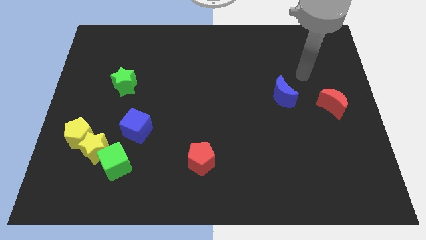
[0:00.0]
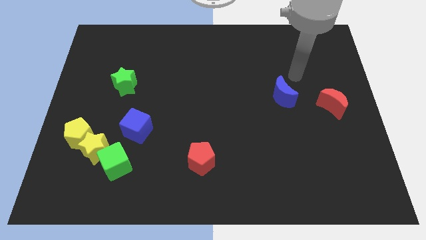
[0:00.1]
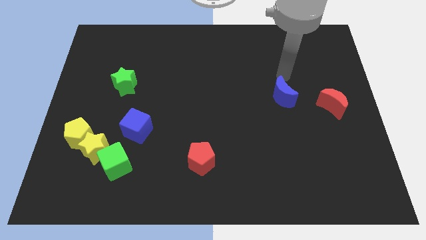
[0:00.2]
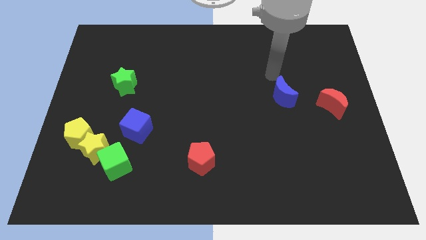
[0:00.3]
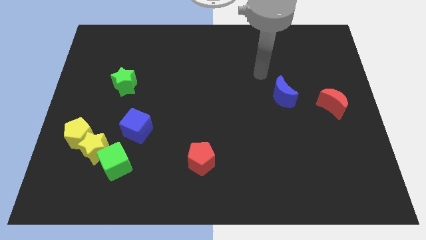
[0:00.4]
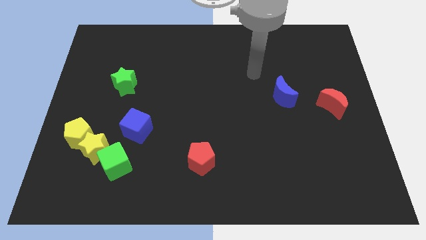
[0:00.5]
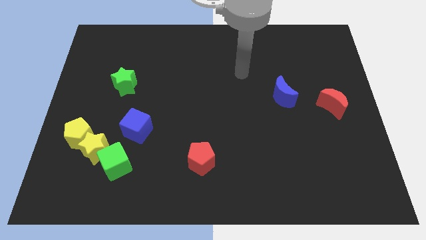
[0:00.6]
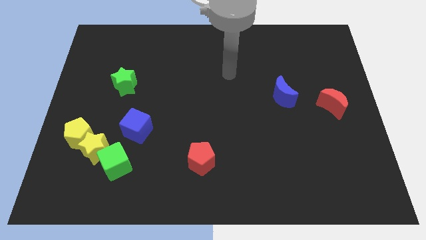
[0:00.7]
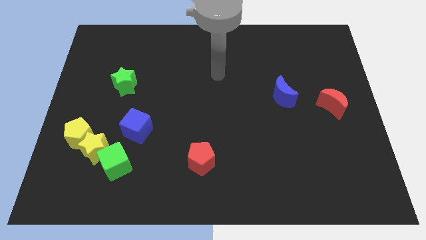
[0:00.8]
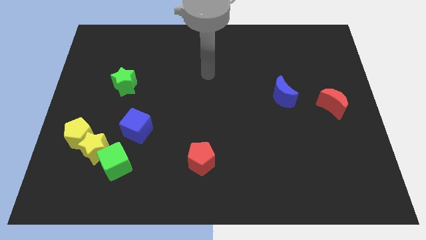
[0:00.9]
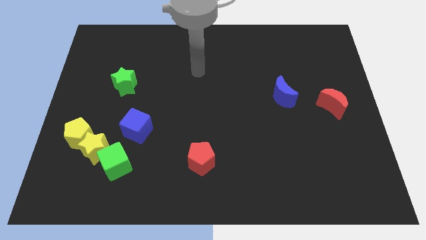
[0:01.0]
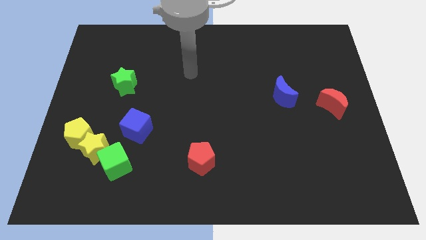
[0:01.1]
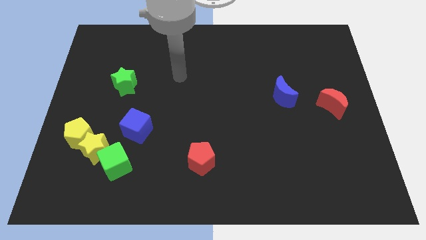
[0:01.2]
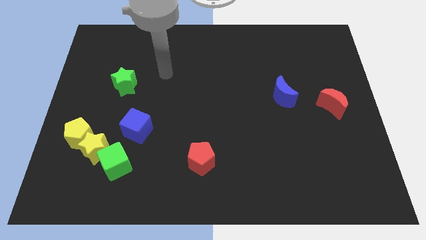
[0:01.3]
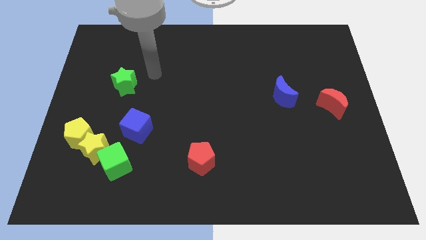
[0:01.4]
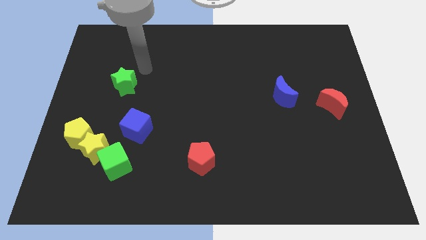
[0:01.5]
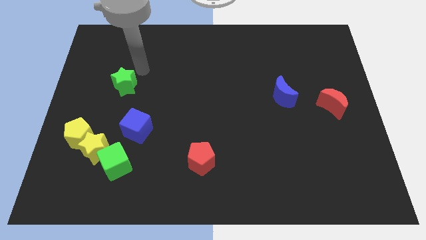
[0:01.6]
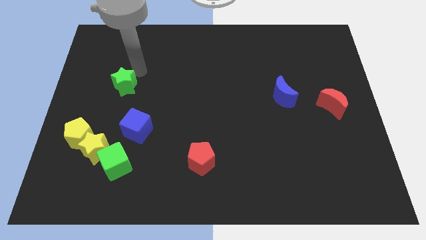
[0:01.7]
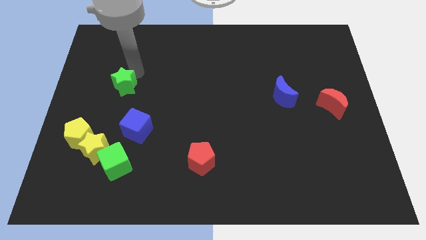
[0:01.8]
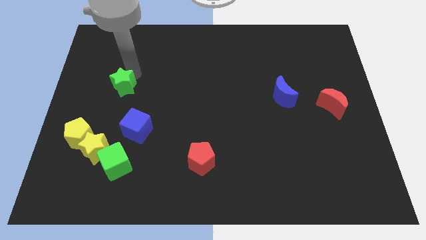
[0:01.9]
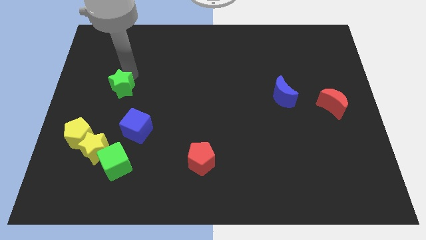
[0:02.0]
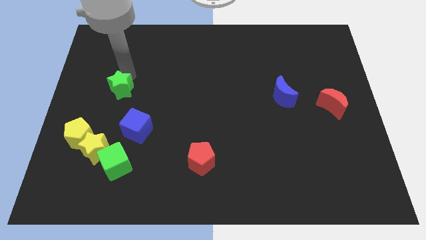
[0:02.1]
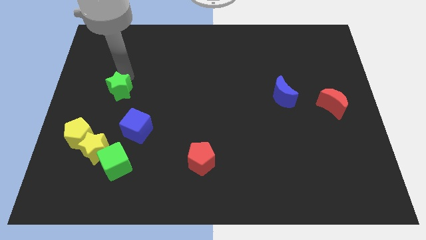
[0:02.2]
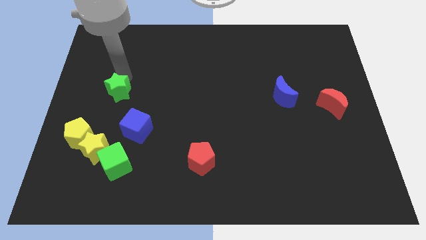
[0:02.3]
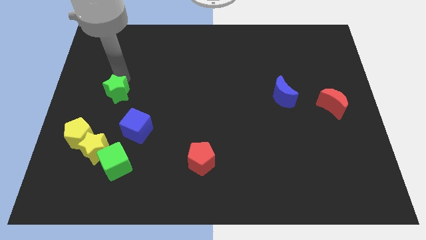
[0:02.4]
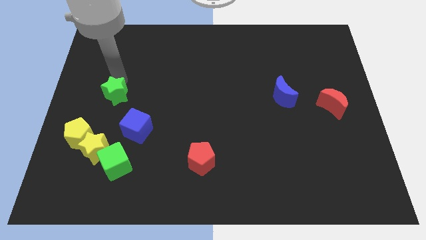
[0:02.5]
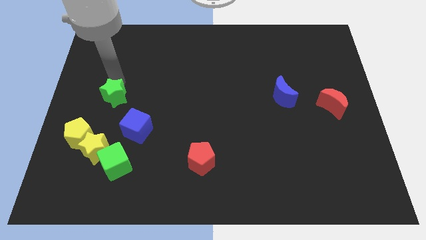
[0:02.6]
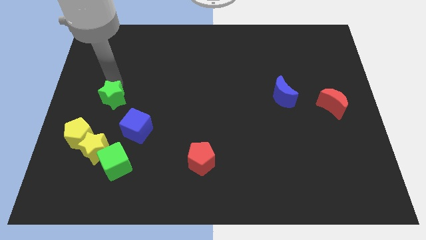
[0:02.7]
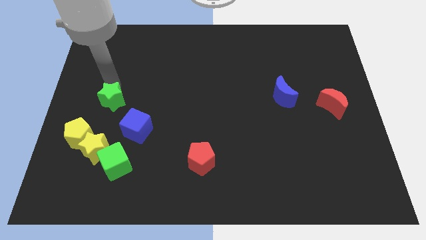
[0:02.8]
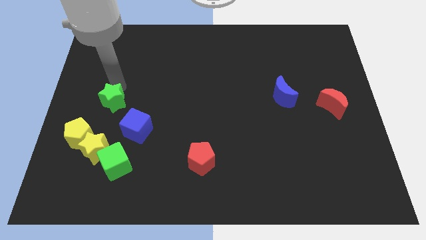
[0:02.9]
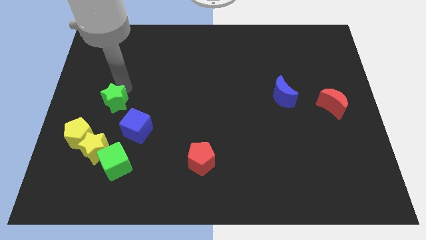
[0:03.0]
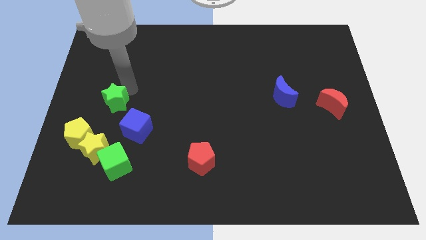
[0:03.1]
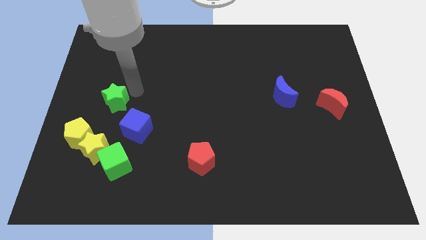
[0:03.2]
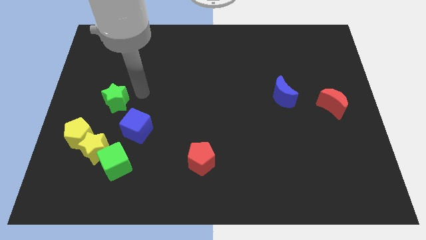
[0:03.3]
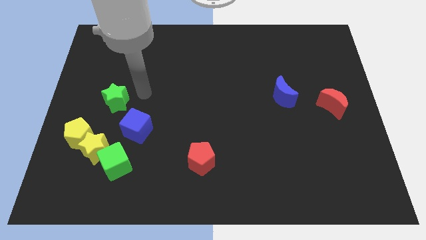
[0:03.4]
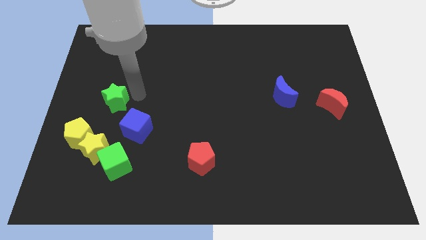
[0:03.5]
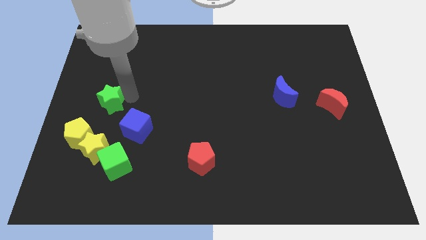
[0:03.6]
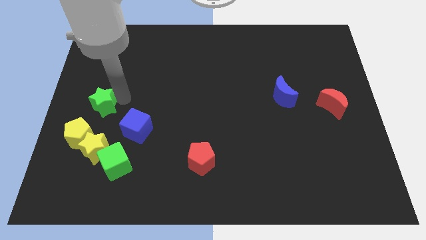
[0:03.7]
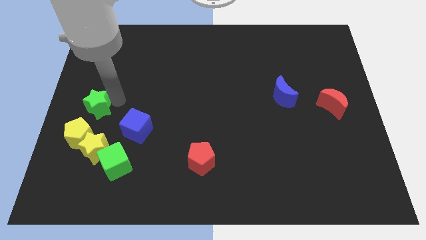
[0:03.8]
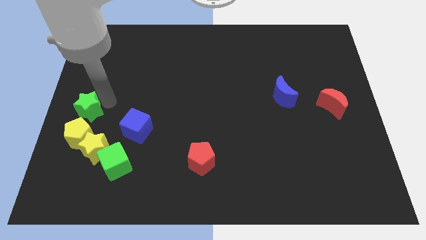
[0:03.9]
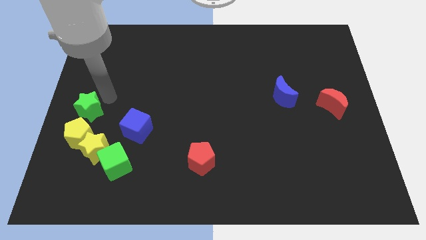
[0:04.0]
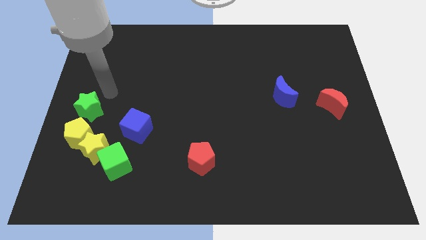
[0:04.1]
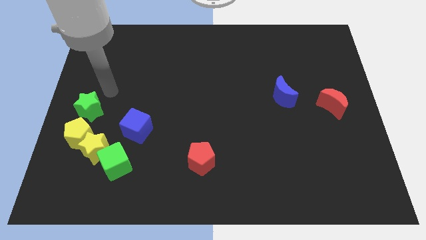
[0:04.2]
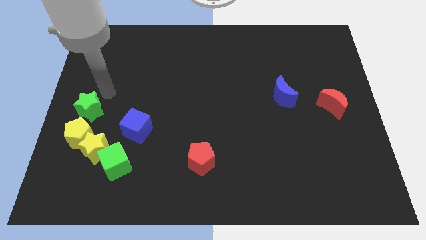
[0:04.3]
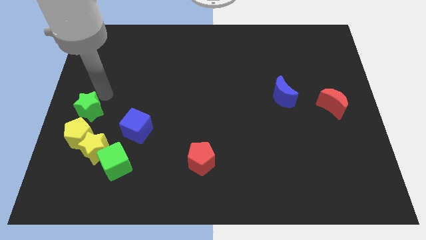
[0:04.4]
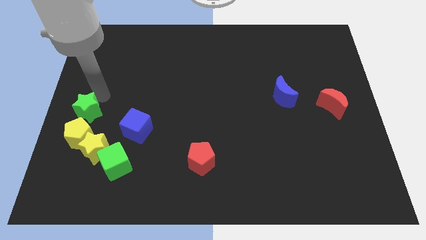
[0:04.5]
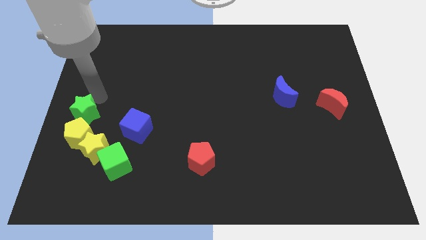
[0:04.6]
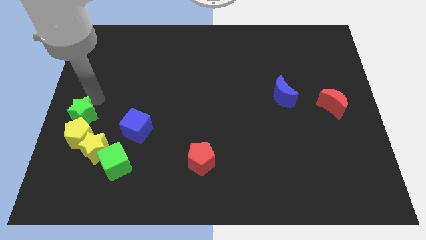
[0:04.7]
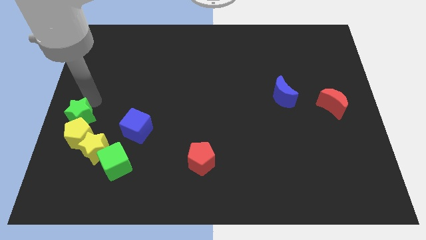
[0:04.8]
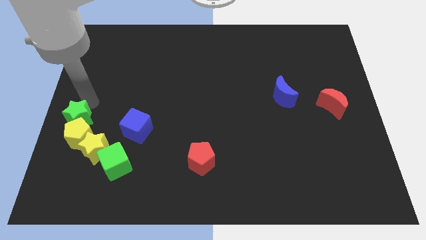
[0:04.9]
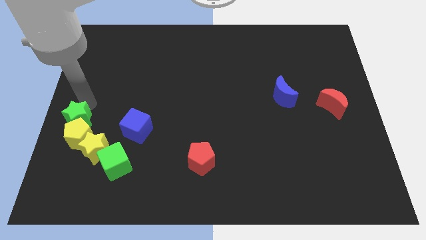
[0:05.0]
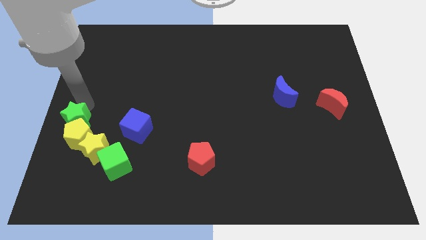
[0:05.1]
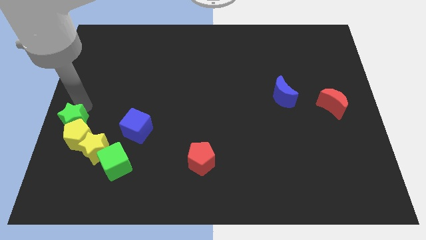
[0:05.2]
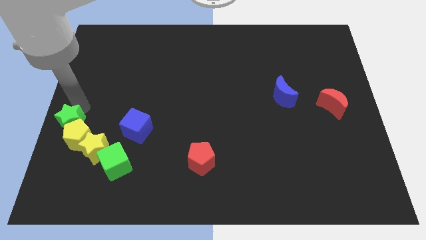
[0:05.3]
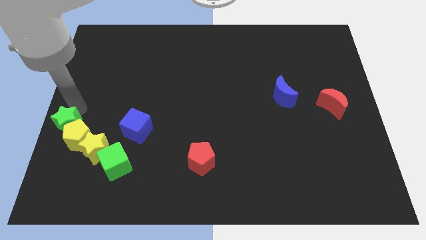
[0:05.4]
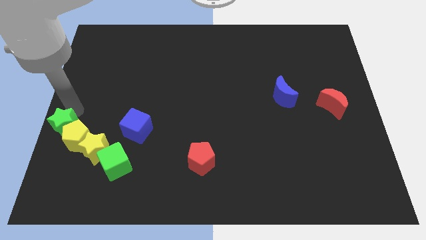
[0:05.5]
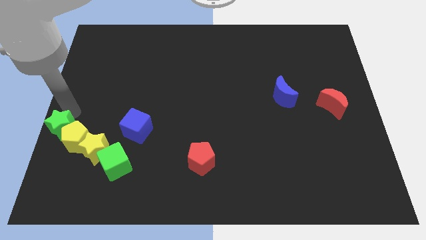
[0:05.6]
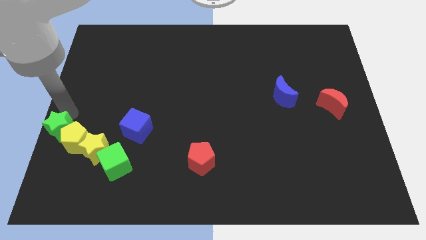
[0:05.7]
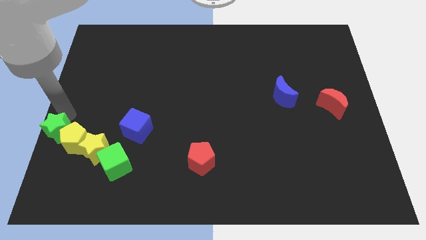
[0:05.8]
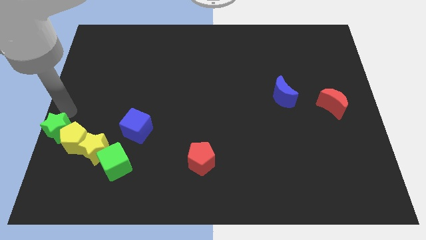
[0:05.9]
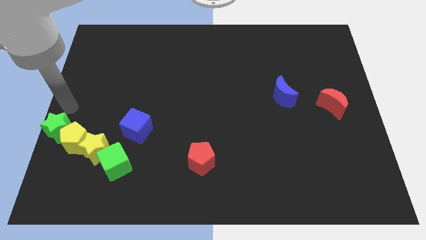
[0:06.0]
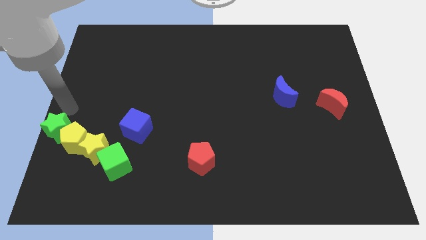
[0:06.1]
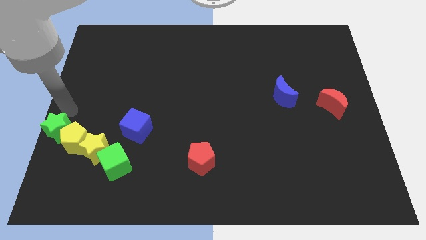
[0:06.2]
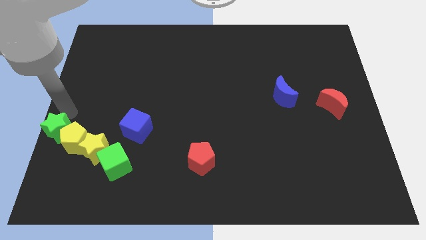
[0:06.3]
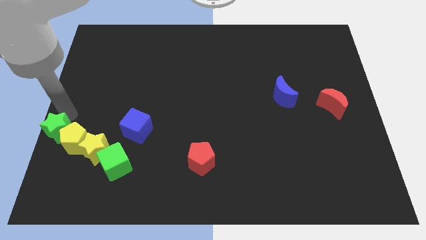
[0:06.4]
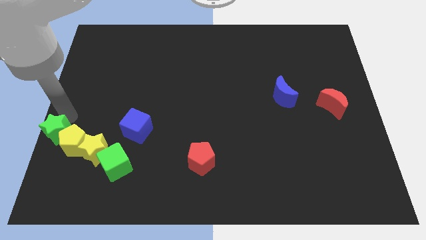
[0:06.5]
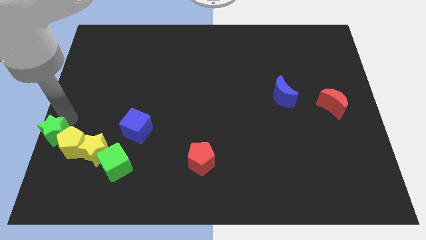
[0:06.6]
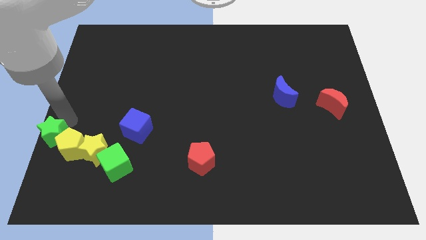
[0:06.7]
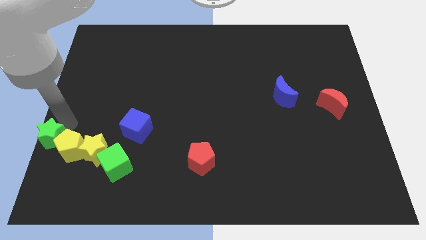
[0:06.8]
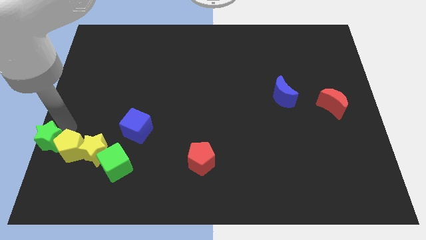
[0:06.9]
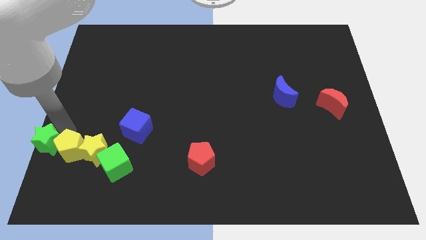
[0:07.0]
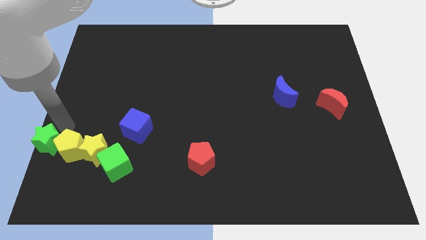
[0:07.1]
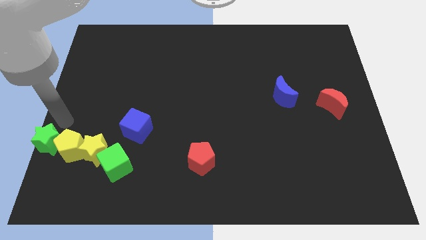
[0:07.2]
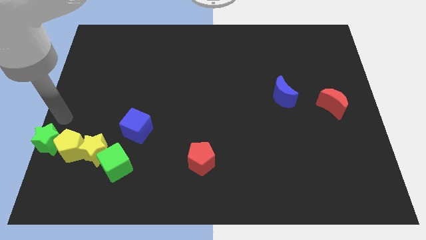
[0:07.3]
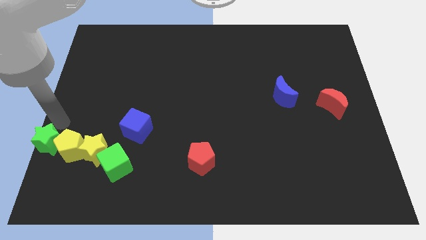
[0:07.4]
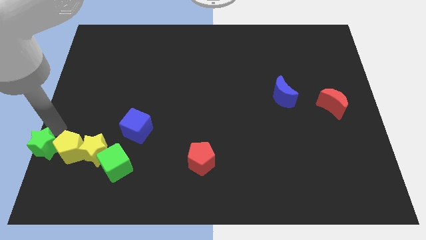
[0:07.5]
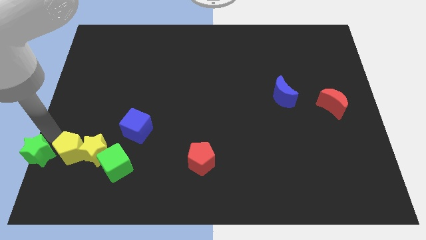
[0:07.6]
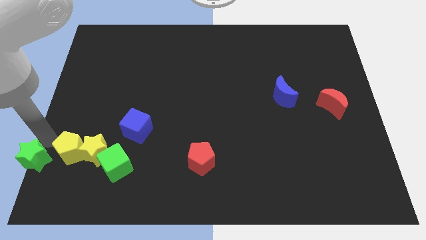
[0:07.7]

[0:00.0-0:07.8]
slide the green star to the bottom left of the board
